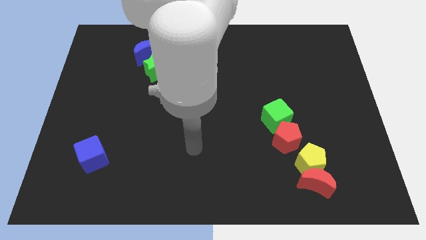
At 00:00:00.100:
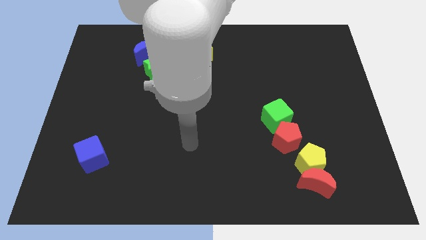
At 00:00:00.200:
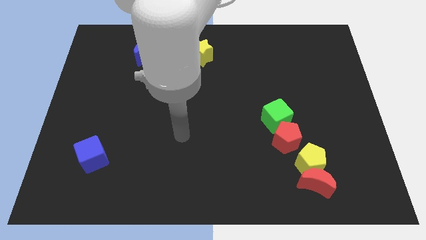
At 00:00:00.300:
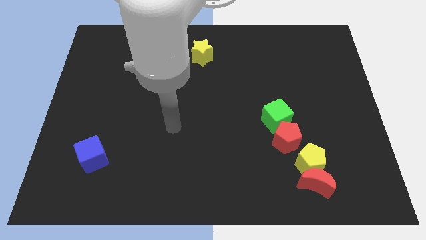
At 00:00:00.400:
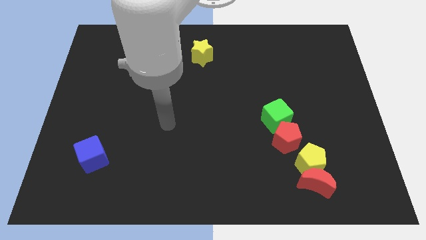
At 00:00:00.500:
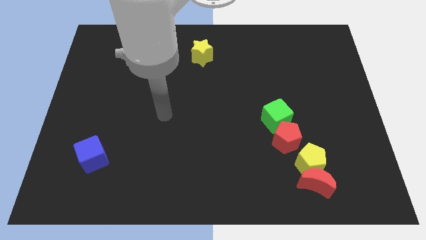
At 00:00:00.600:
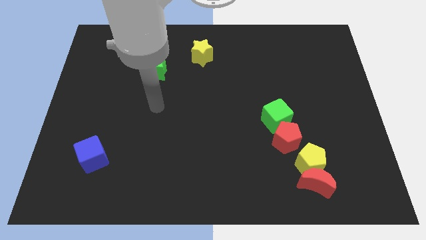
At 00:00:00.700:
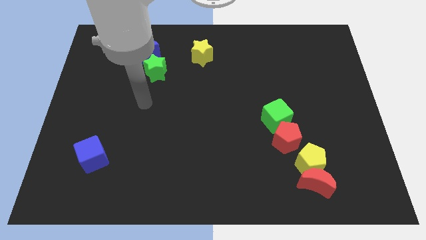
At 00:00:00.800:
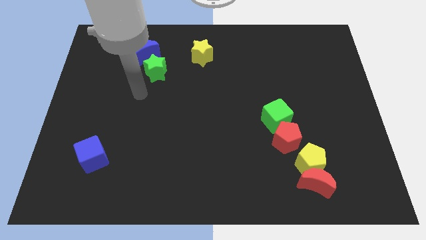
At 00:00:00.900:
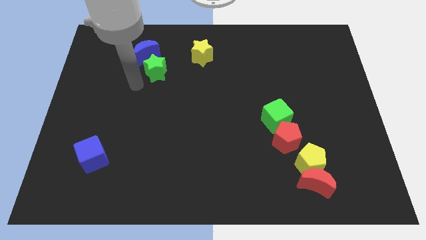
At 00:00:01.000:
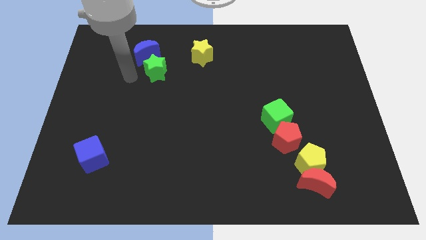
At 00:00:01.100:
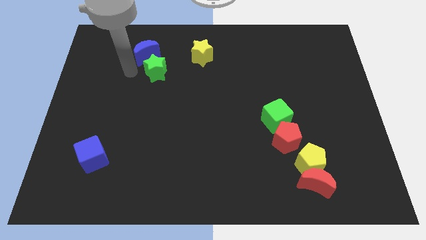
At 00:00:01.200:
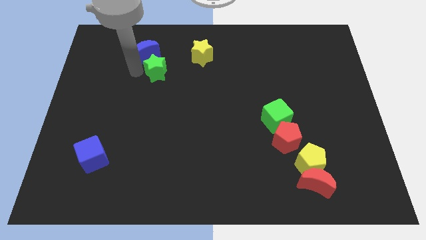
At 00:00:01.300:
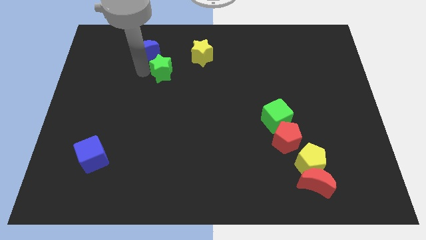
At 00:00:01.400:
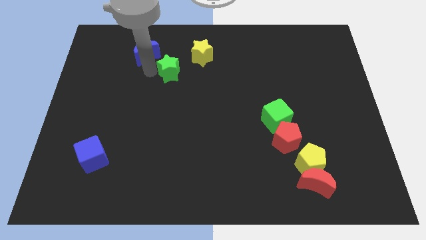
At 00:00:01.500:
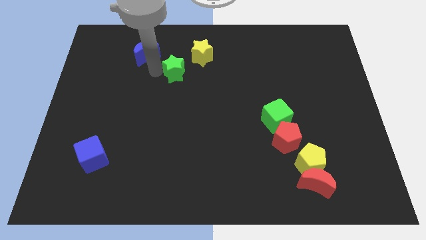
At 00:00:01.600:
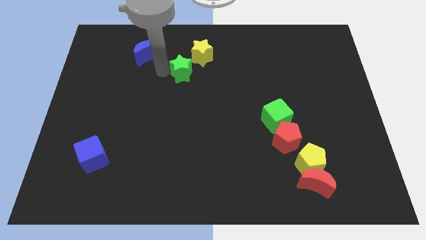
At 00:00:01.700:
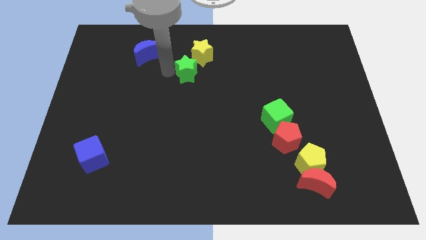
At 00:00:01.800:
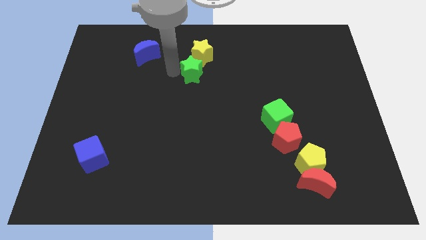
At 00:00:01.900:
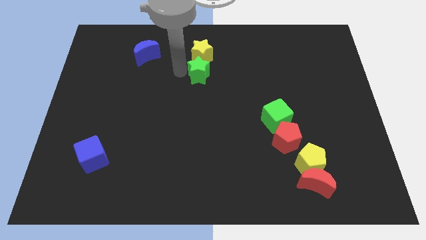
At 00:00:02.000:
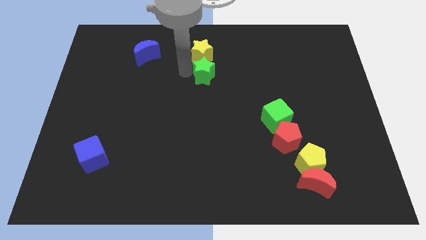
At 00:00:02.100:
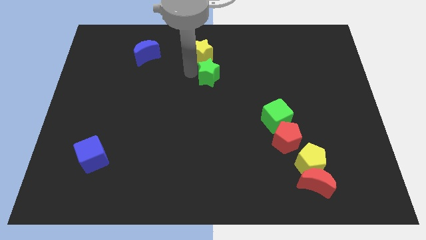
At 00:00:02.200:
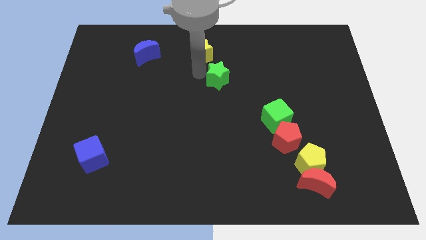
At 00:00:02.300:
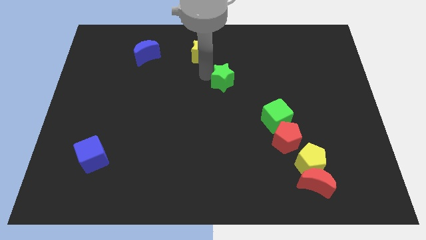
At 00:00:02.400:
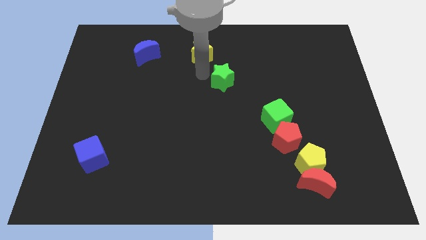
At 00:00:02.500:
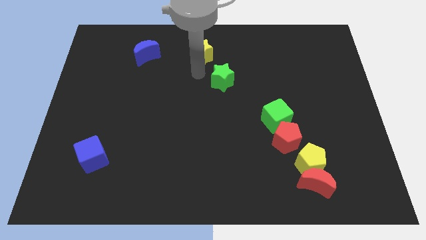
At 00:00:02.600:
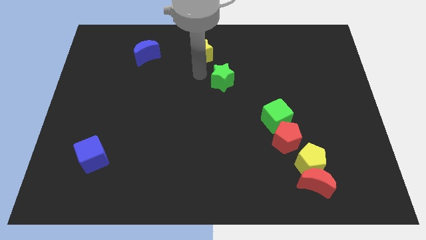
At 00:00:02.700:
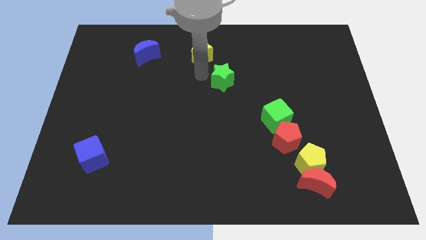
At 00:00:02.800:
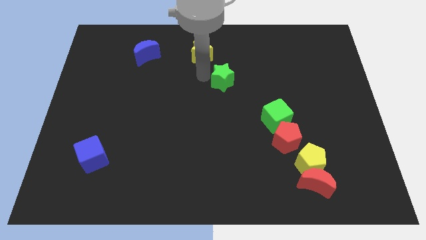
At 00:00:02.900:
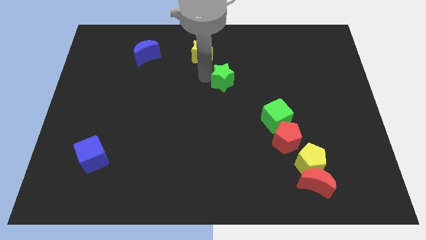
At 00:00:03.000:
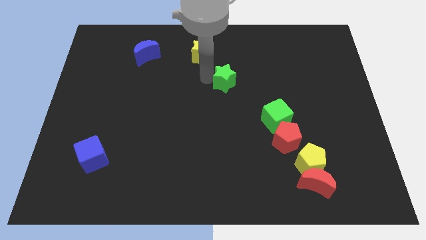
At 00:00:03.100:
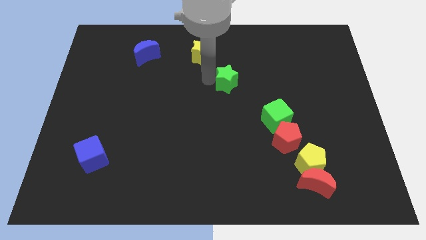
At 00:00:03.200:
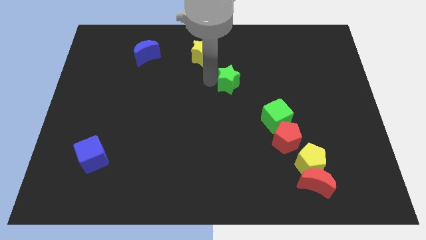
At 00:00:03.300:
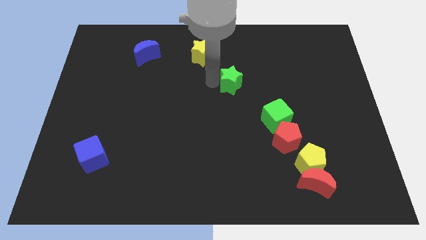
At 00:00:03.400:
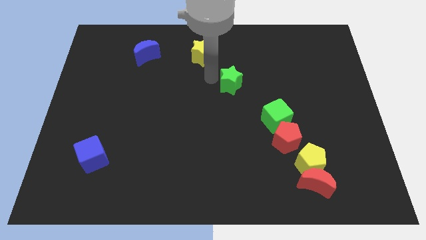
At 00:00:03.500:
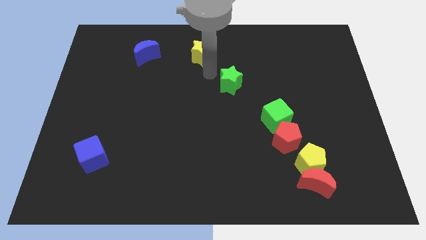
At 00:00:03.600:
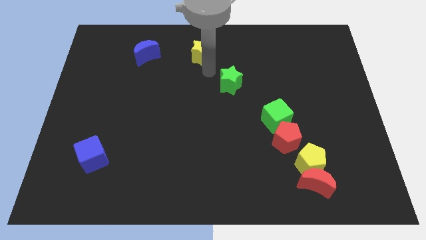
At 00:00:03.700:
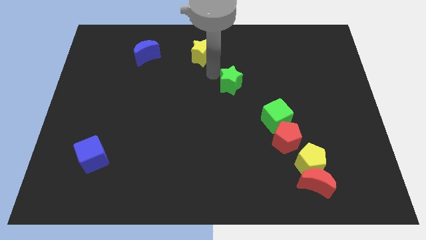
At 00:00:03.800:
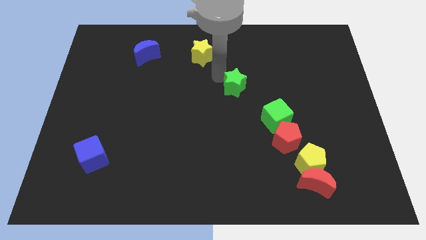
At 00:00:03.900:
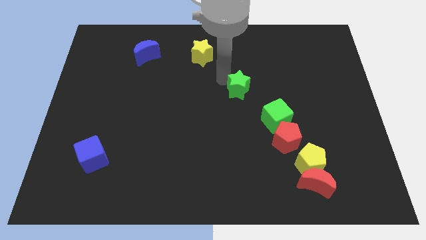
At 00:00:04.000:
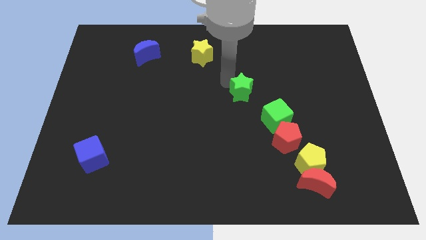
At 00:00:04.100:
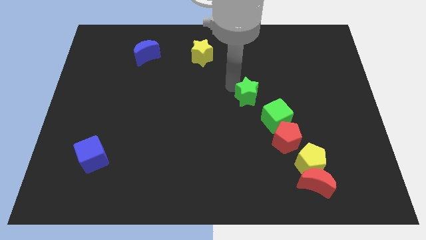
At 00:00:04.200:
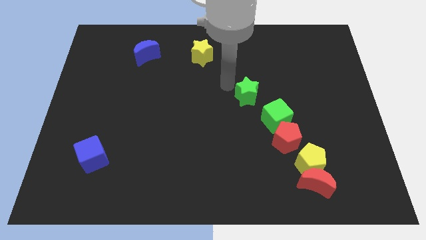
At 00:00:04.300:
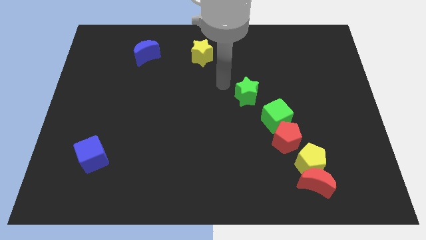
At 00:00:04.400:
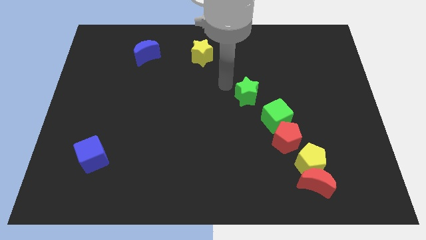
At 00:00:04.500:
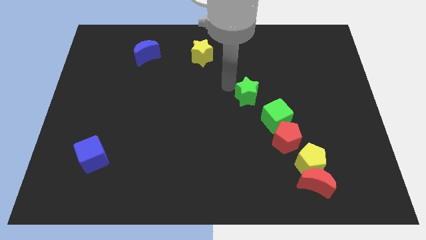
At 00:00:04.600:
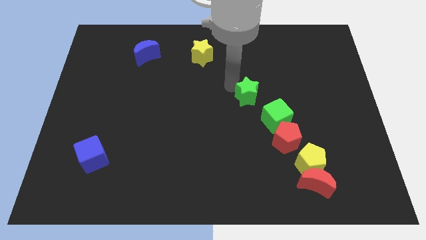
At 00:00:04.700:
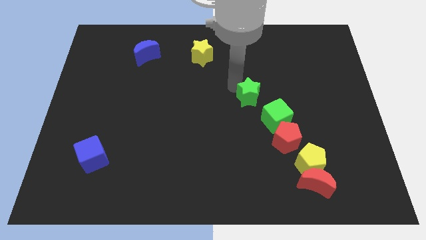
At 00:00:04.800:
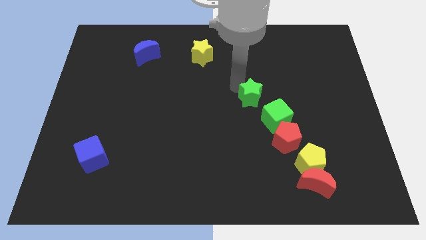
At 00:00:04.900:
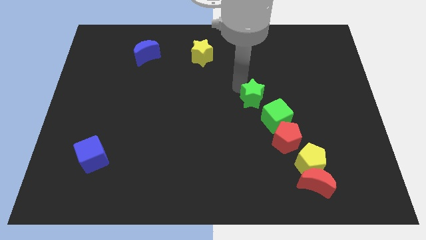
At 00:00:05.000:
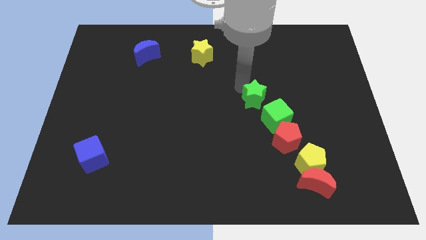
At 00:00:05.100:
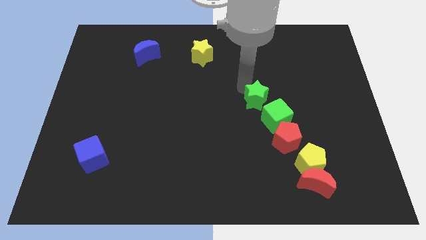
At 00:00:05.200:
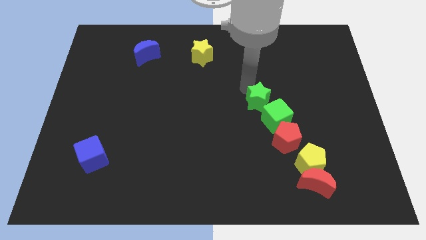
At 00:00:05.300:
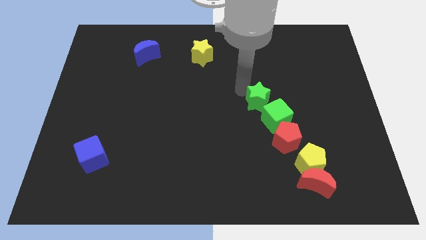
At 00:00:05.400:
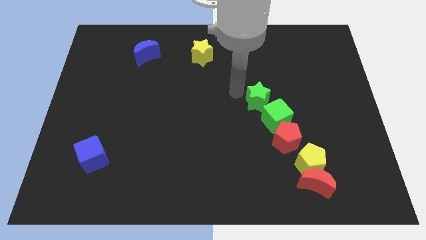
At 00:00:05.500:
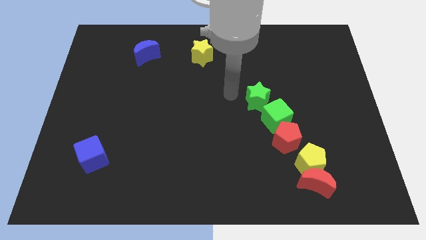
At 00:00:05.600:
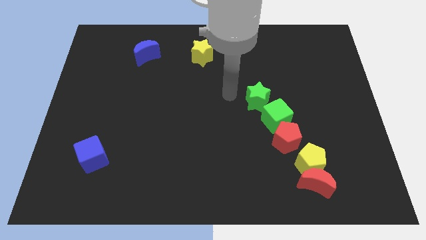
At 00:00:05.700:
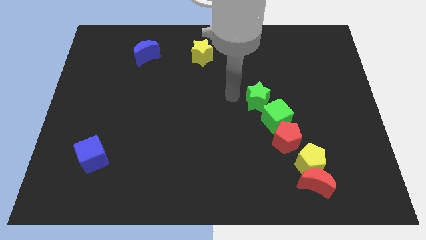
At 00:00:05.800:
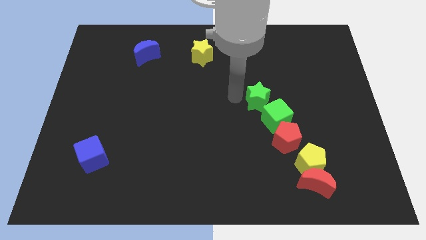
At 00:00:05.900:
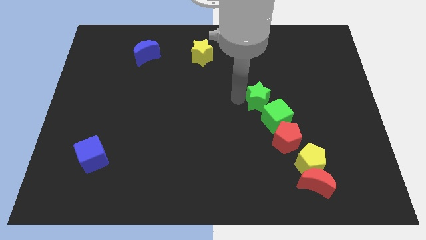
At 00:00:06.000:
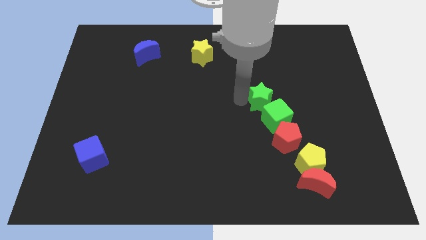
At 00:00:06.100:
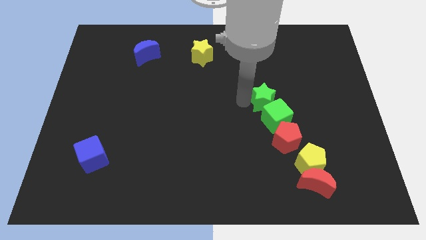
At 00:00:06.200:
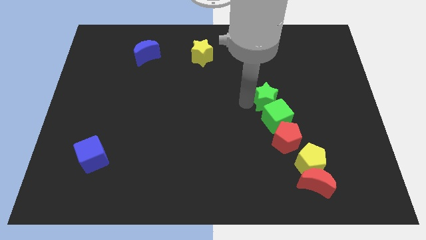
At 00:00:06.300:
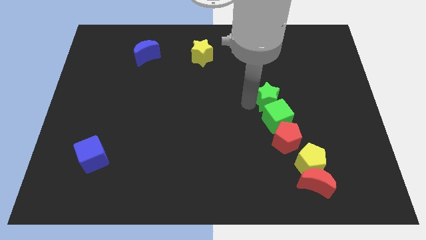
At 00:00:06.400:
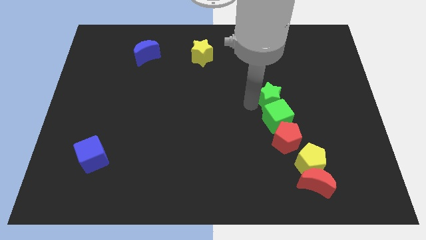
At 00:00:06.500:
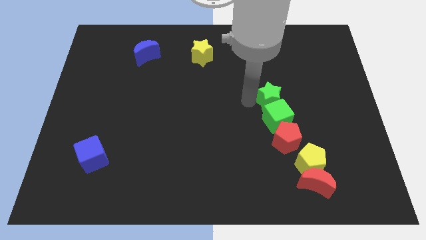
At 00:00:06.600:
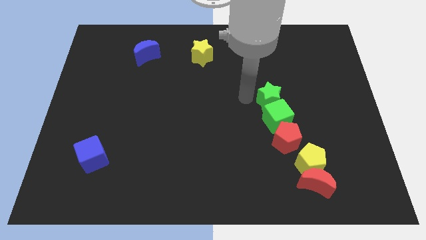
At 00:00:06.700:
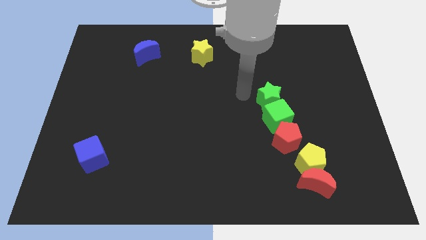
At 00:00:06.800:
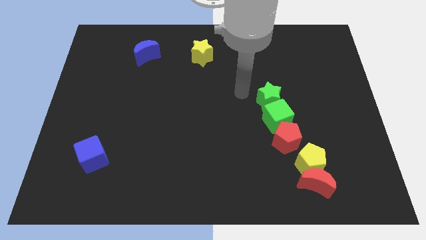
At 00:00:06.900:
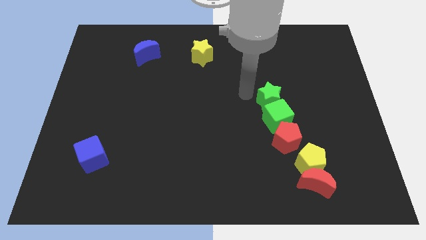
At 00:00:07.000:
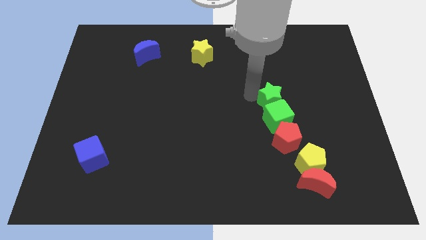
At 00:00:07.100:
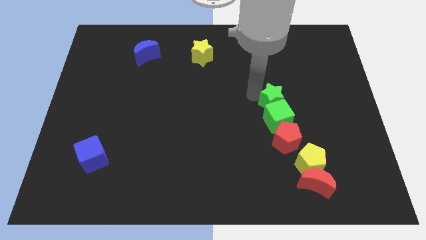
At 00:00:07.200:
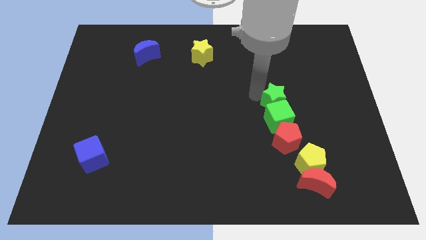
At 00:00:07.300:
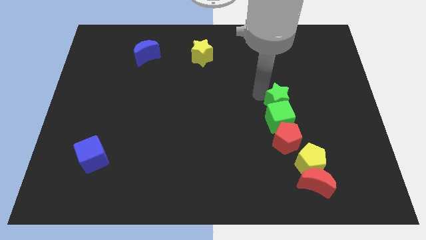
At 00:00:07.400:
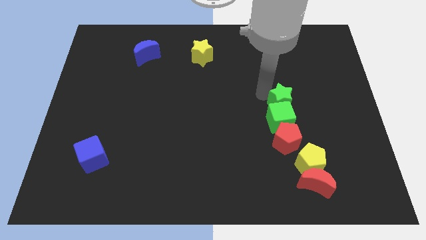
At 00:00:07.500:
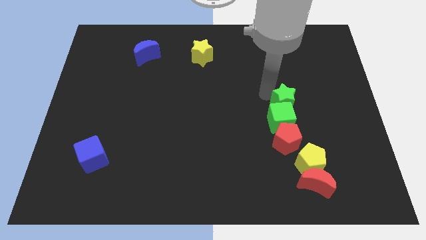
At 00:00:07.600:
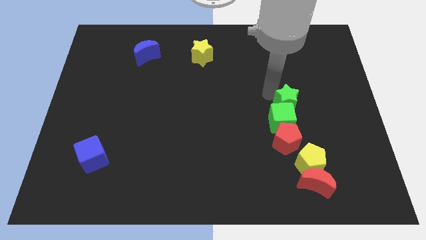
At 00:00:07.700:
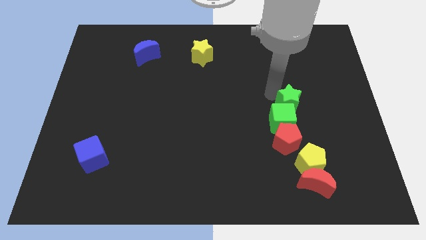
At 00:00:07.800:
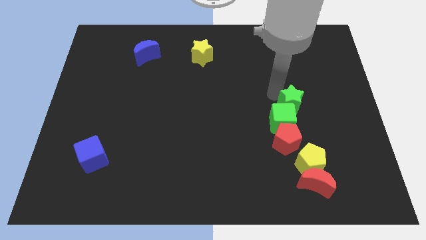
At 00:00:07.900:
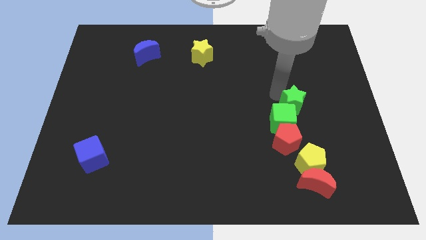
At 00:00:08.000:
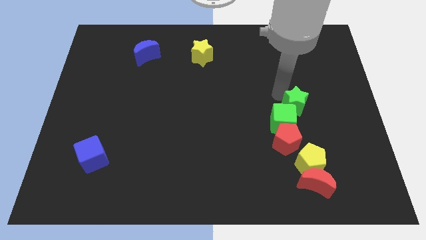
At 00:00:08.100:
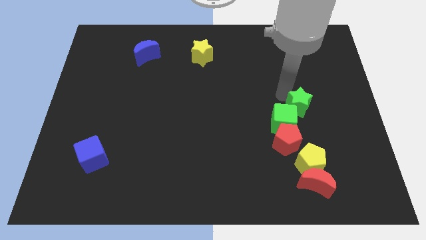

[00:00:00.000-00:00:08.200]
move the green star to the right of the green cube
